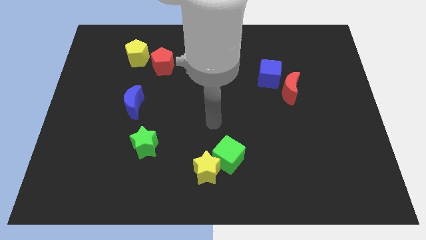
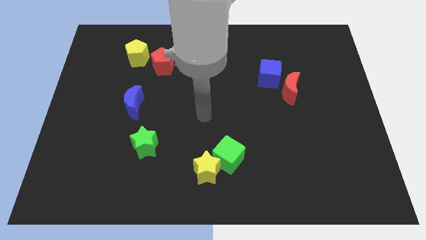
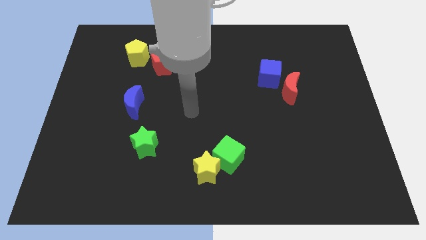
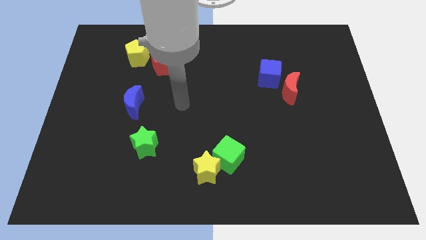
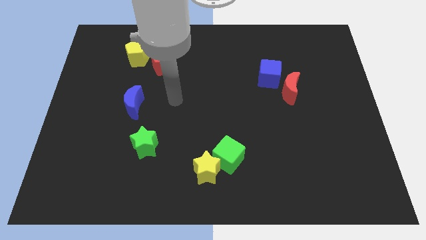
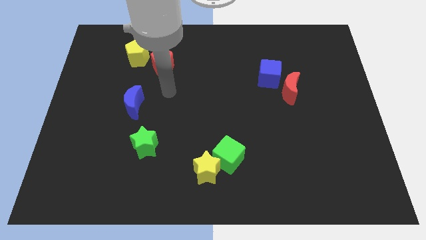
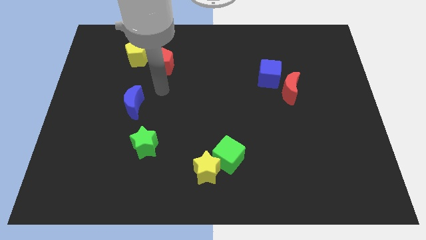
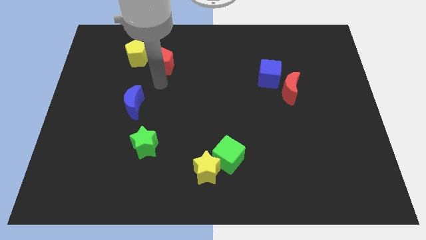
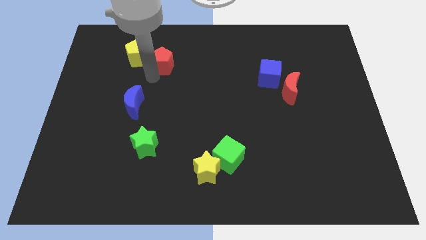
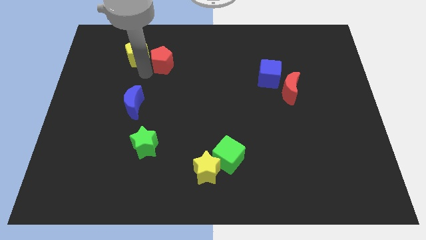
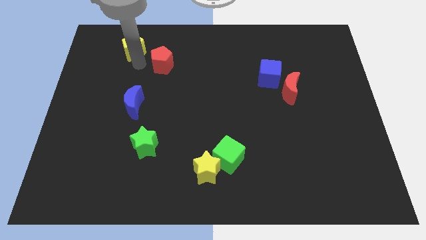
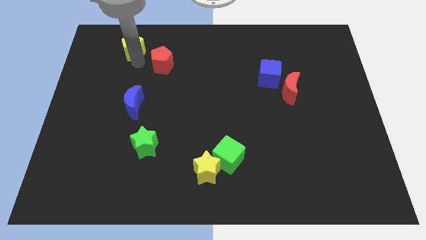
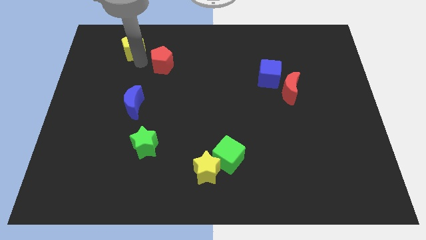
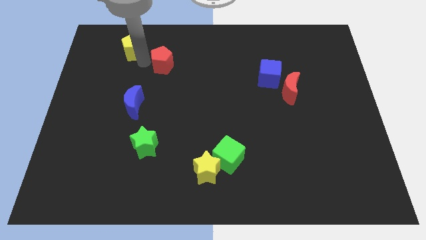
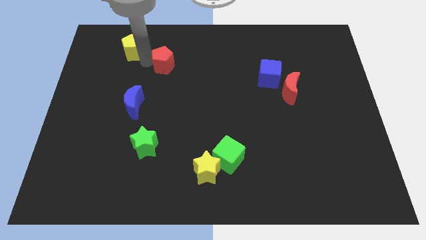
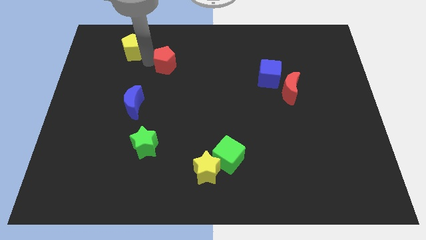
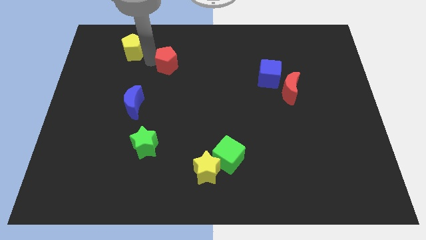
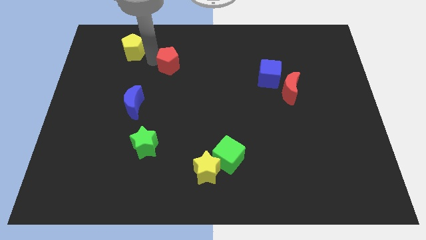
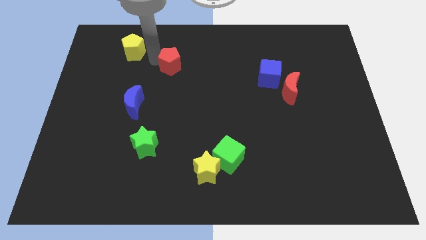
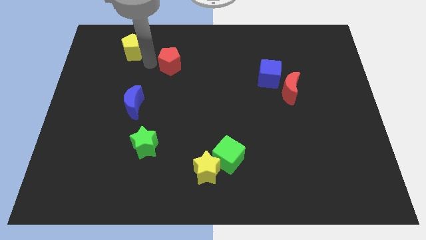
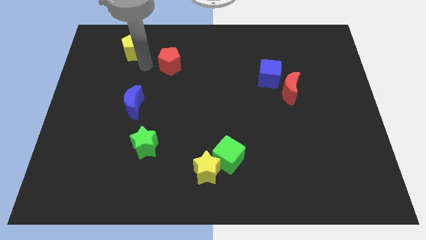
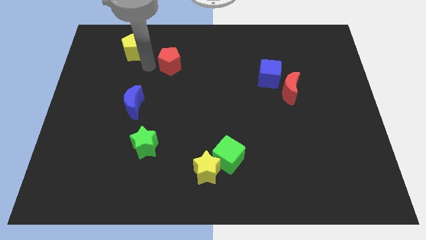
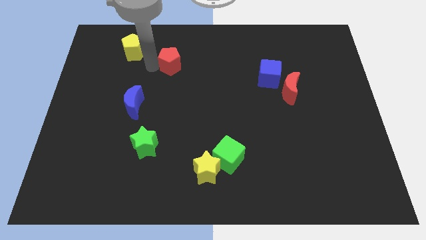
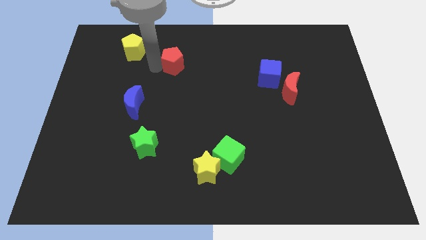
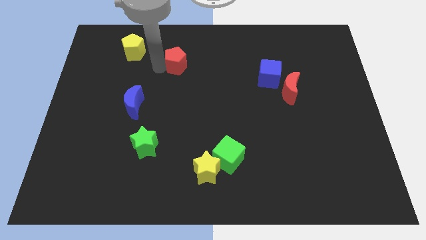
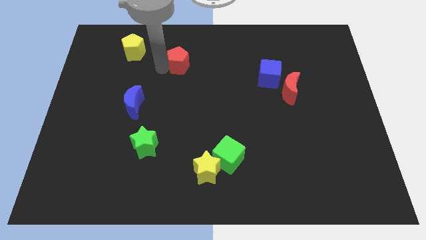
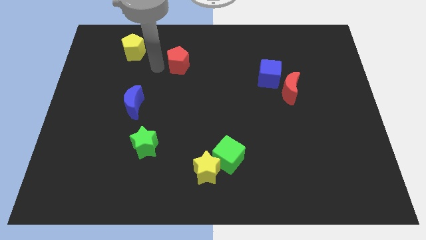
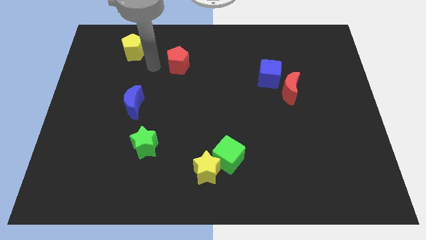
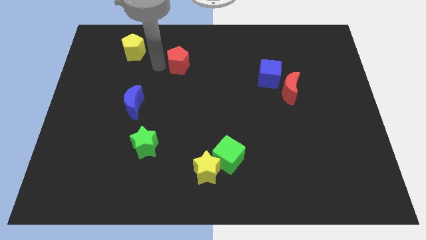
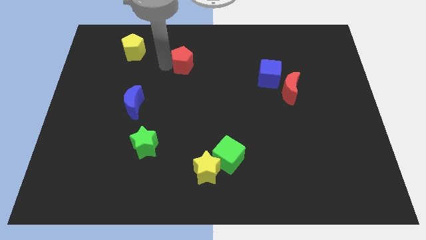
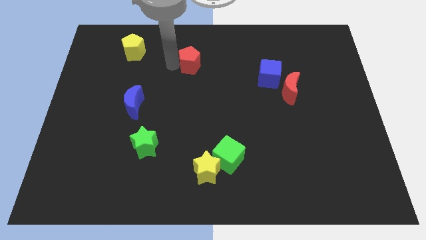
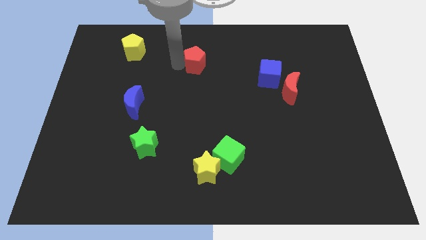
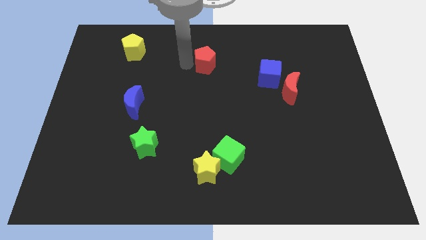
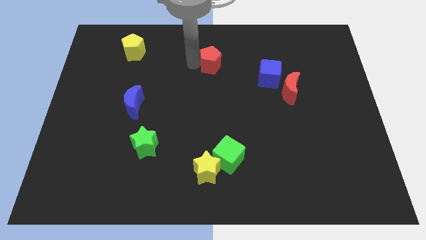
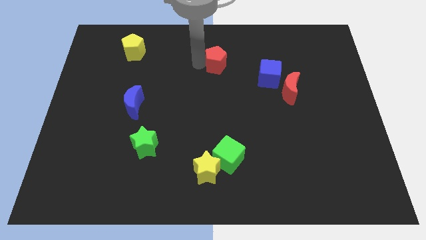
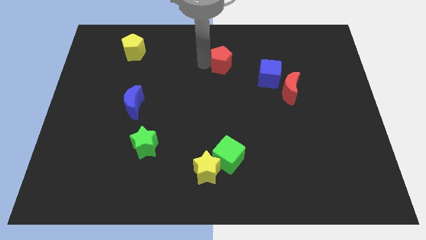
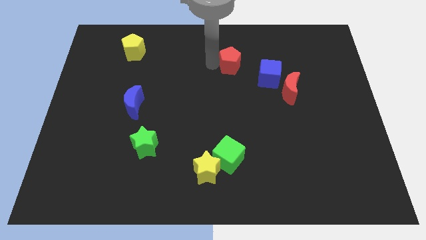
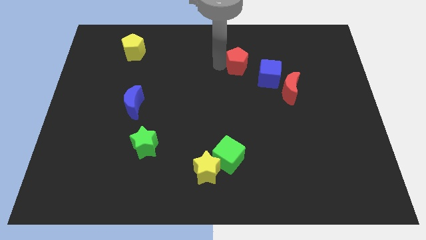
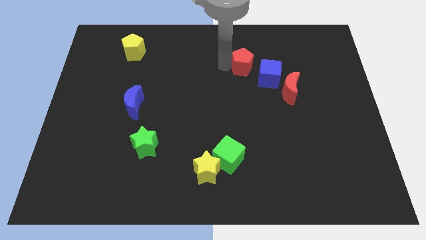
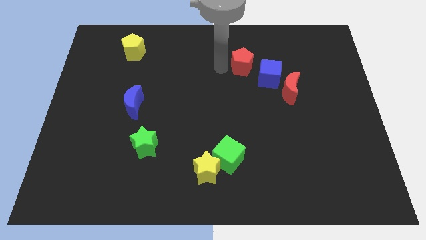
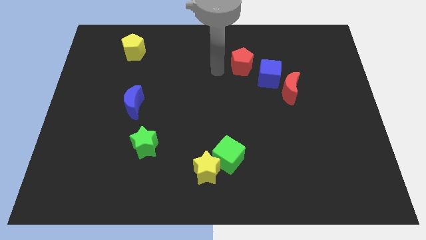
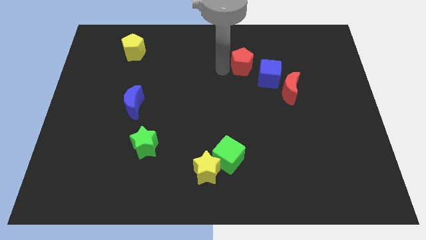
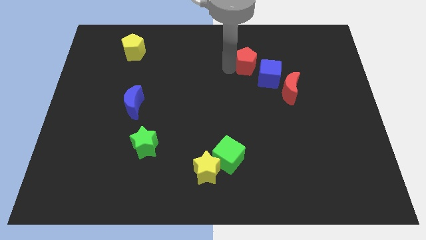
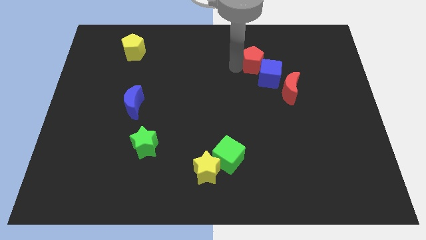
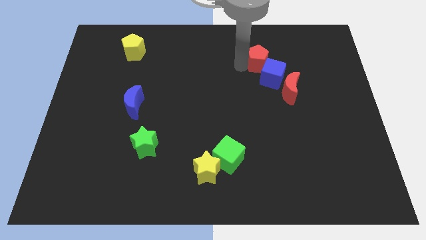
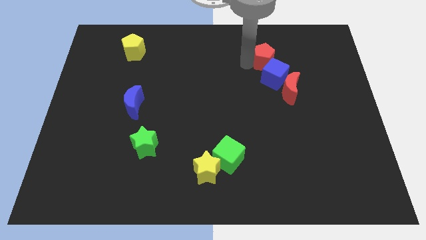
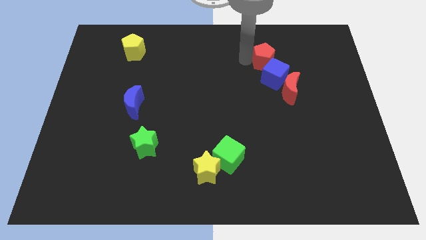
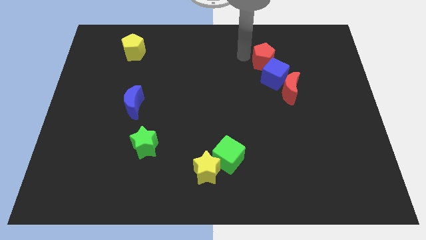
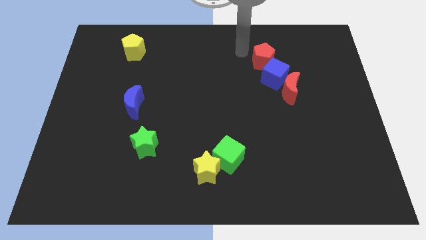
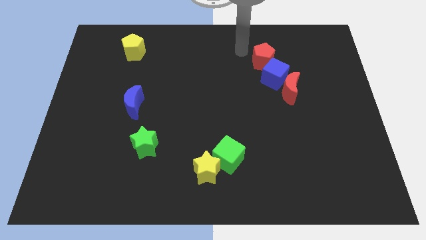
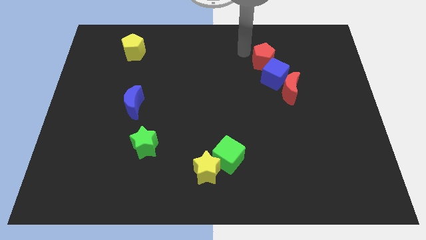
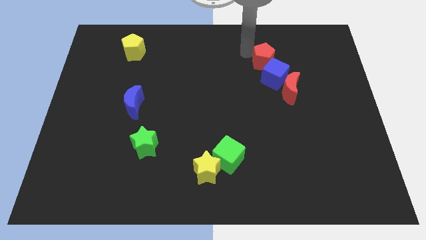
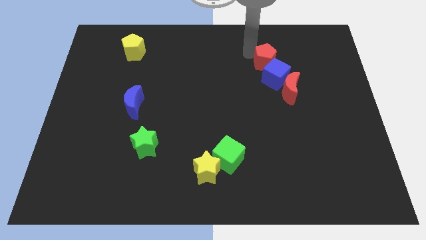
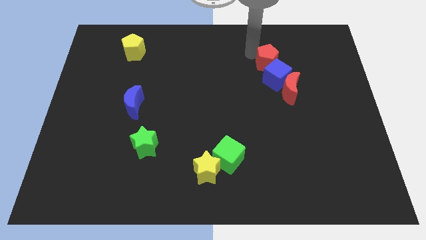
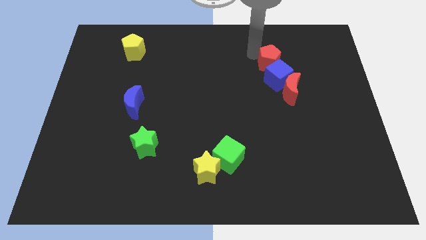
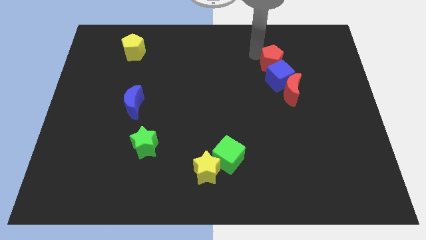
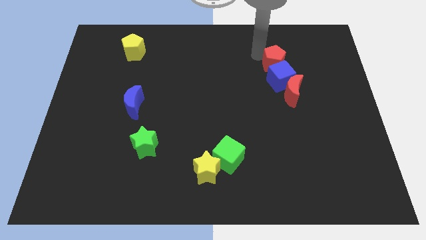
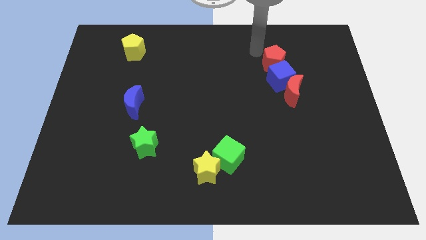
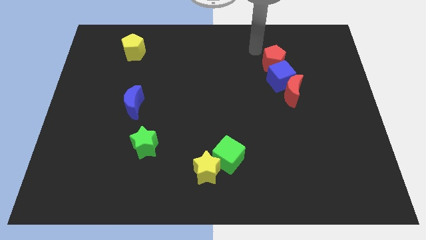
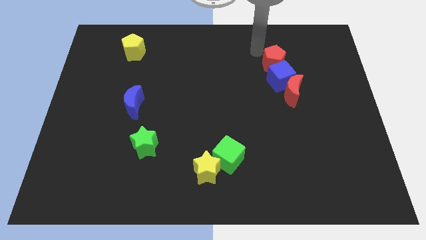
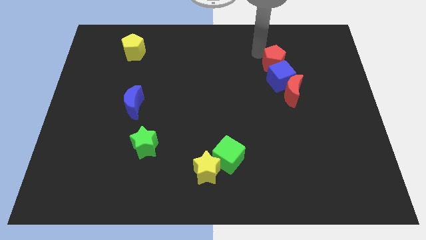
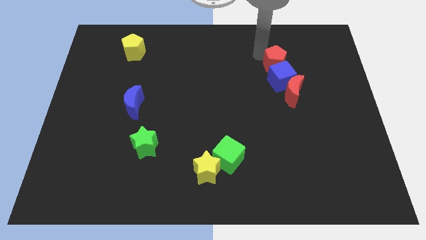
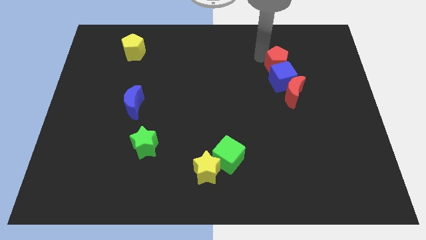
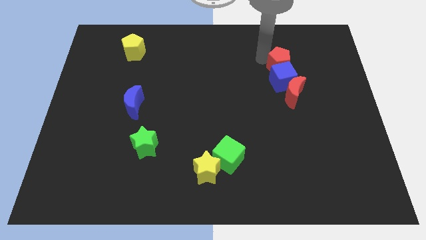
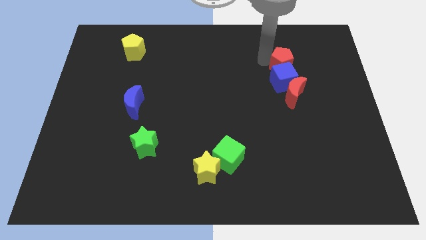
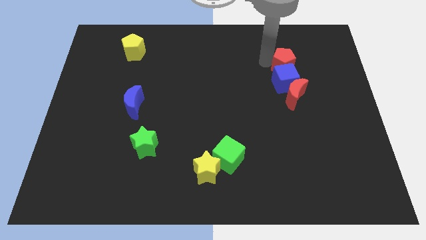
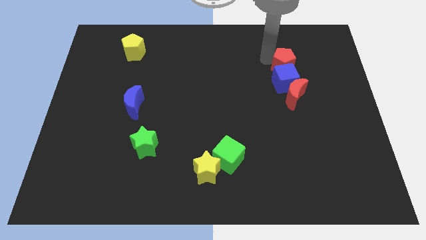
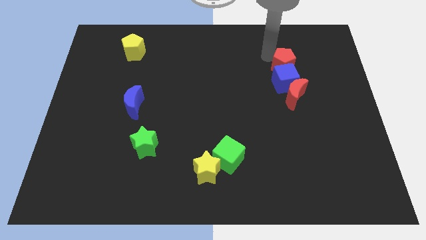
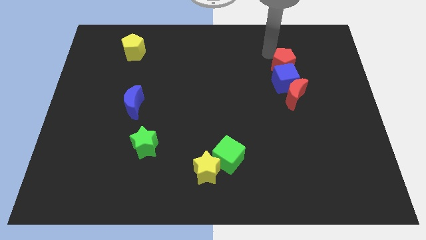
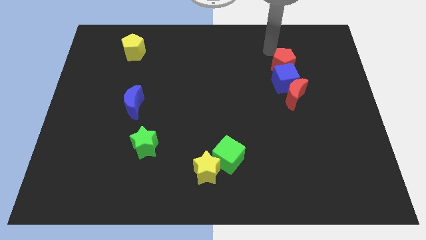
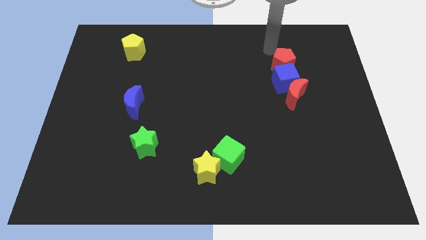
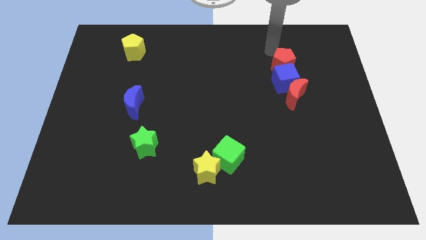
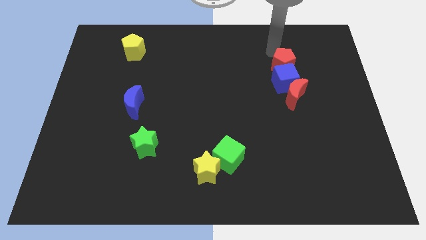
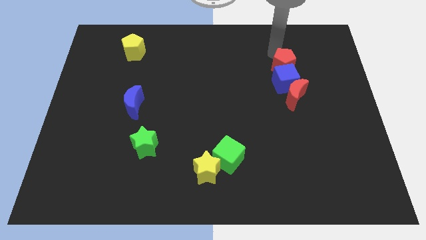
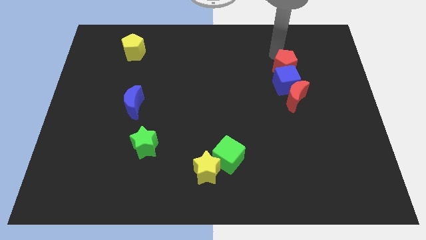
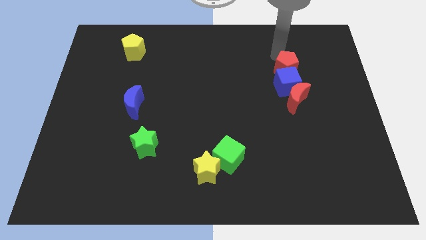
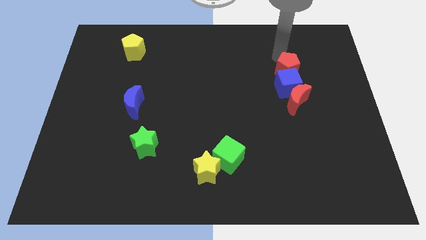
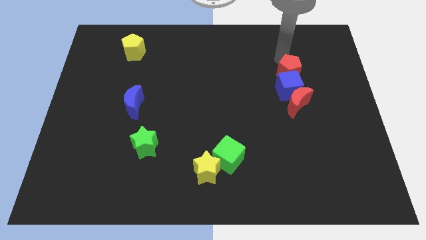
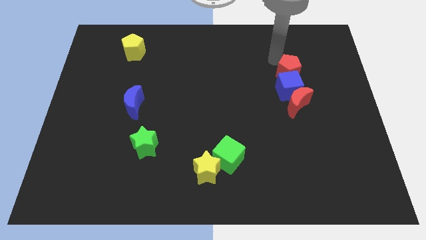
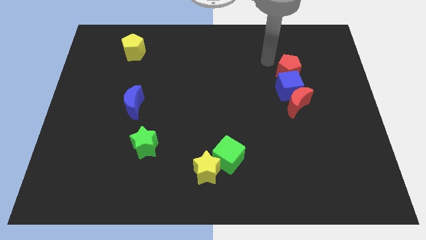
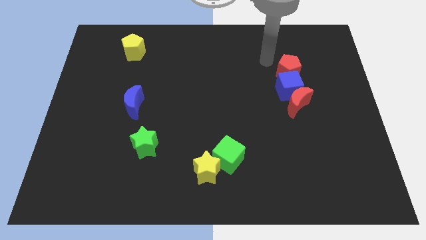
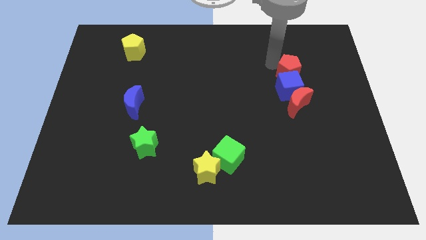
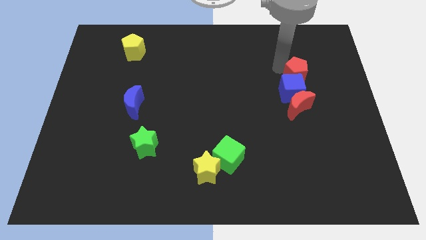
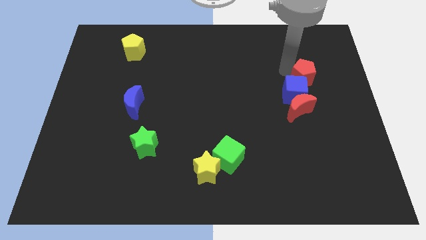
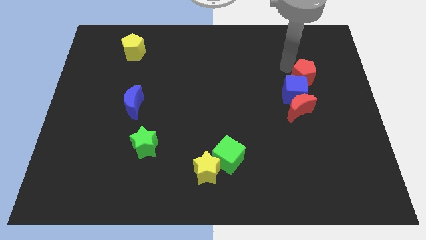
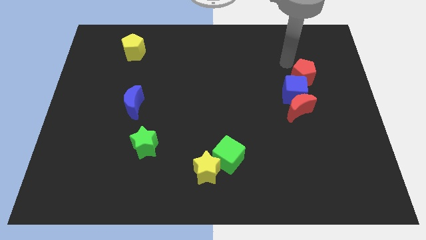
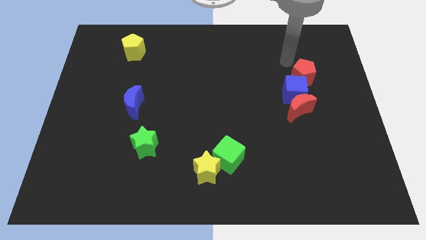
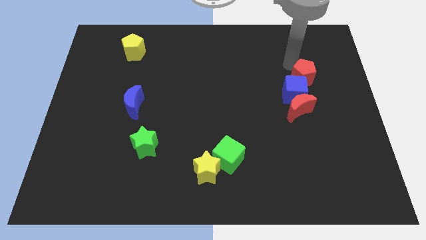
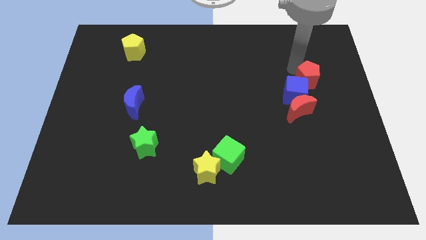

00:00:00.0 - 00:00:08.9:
move the red pentagon to the top right of the red moon
